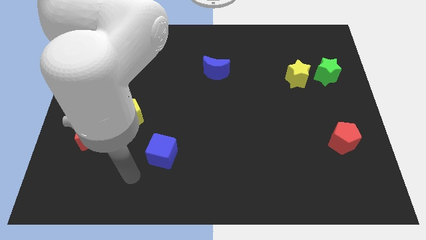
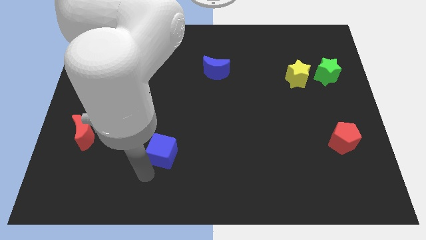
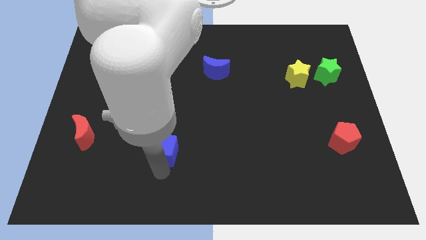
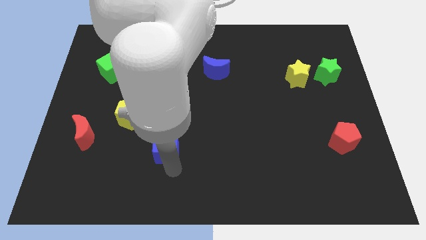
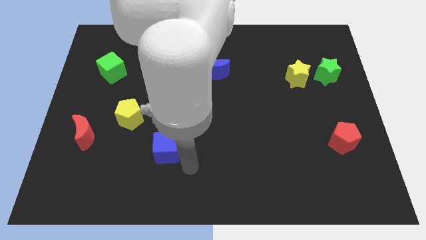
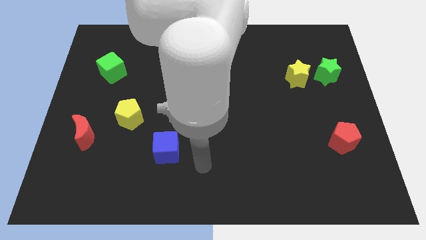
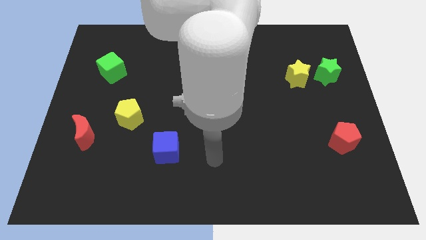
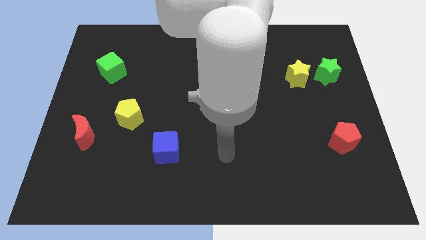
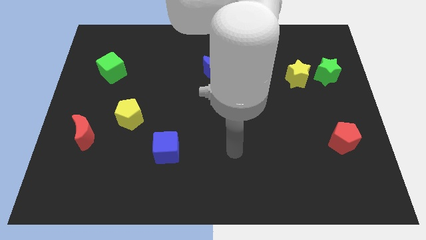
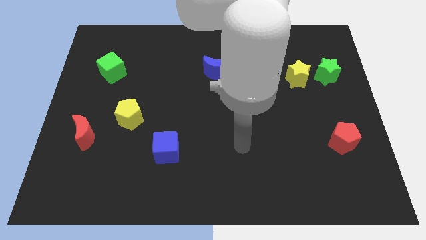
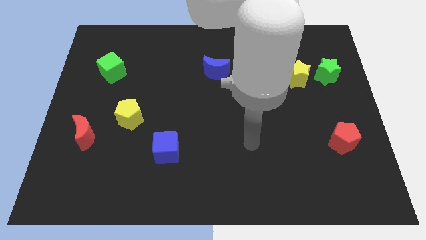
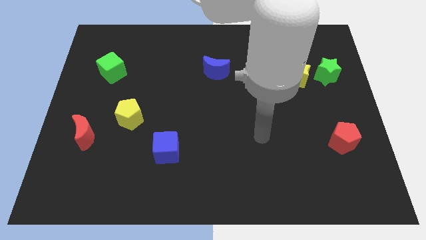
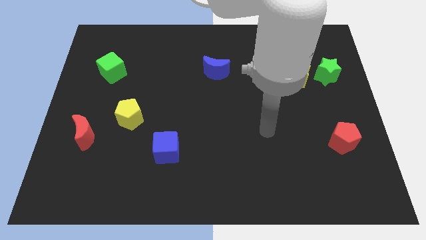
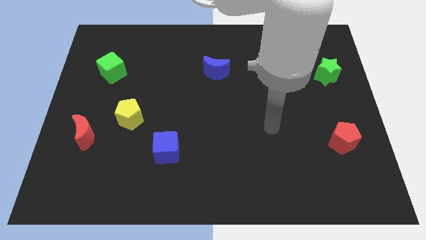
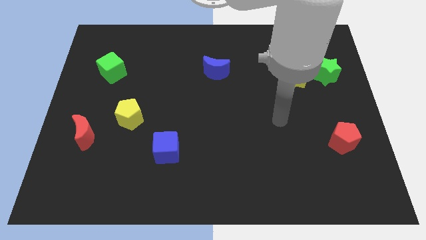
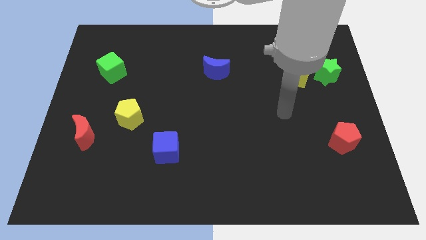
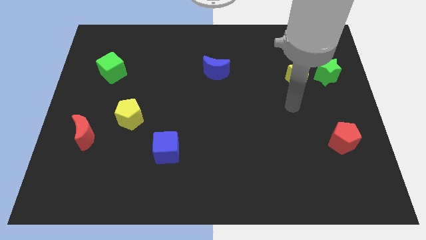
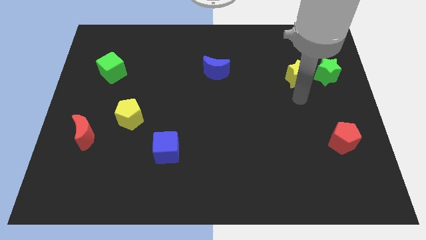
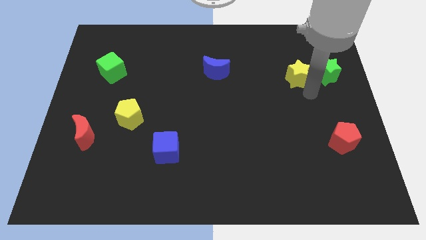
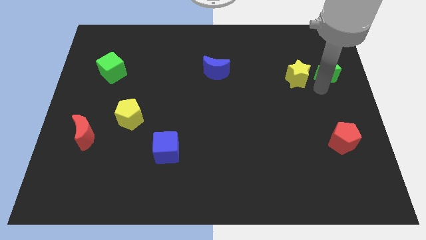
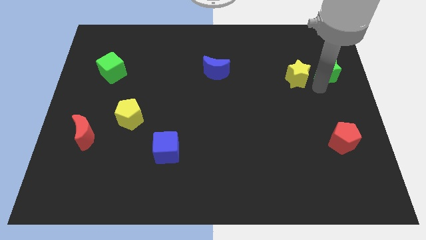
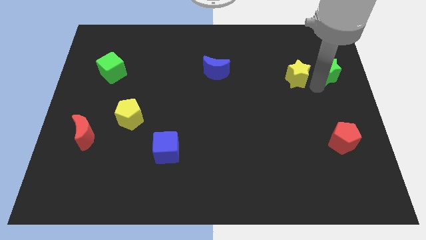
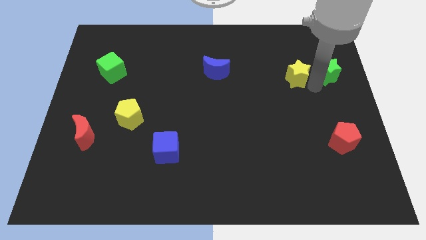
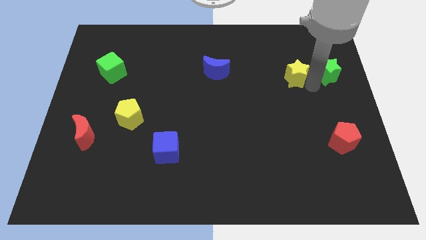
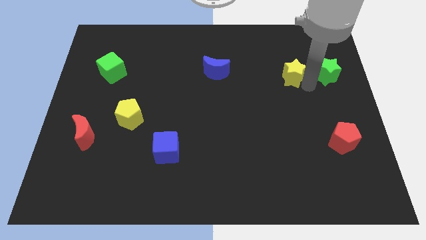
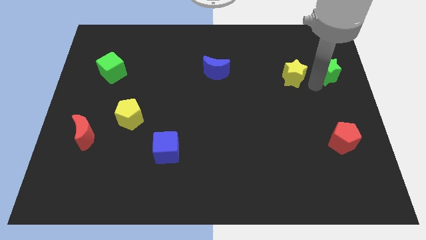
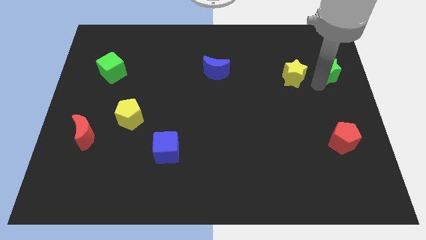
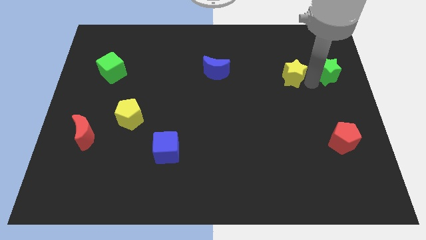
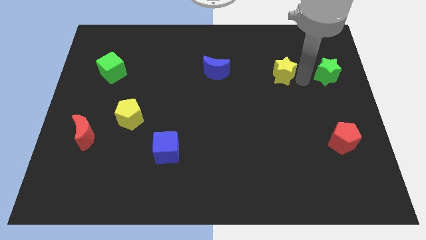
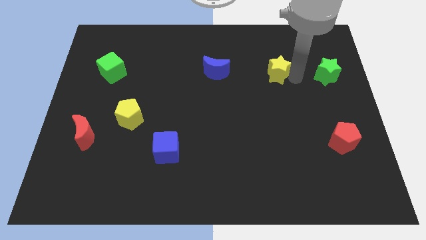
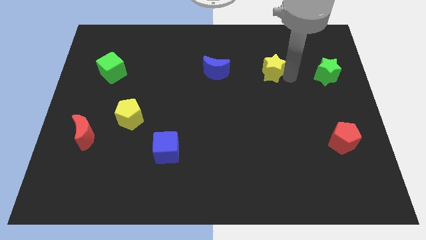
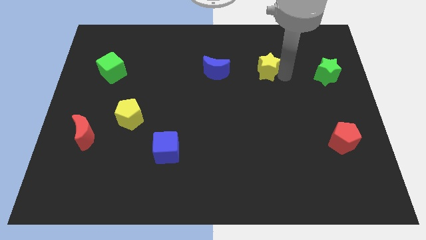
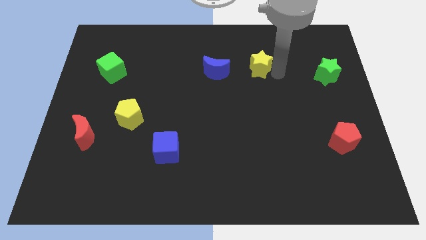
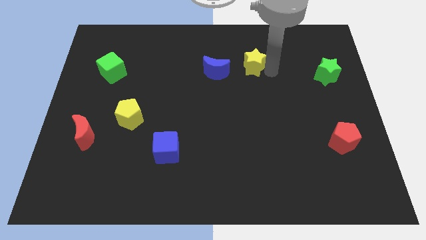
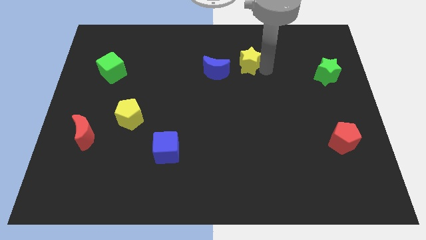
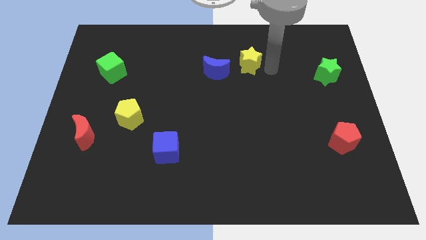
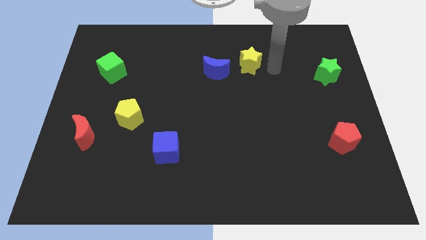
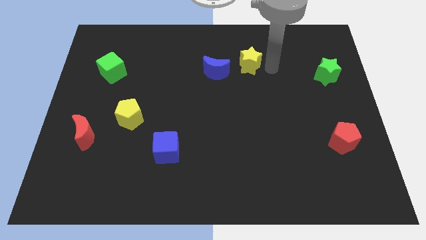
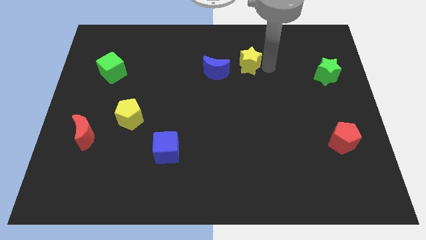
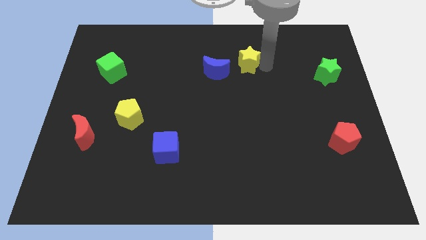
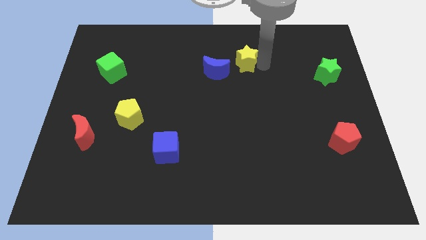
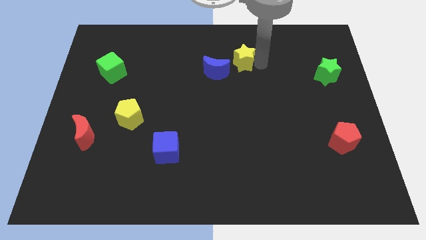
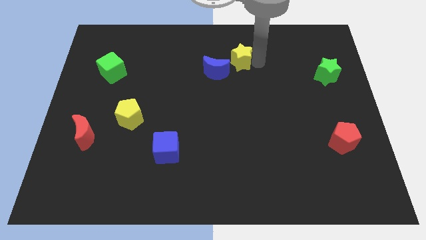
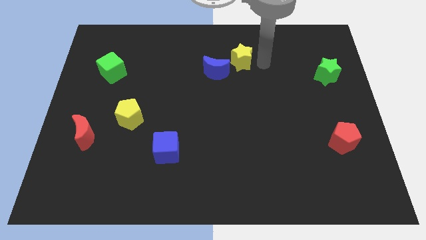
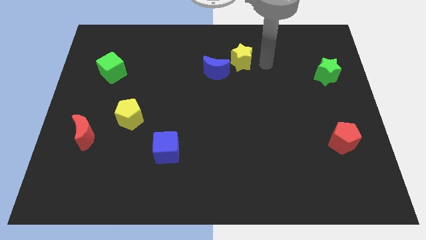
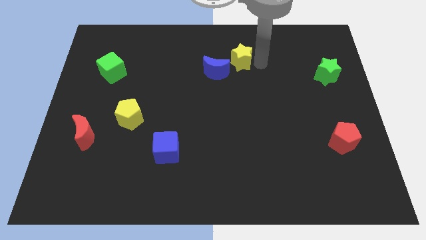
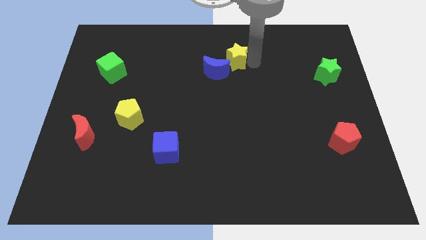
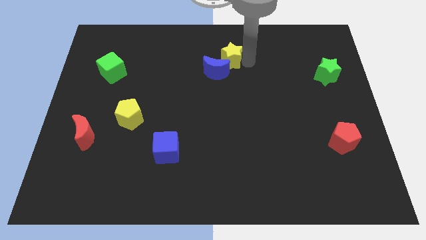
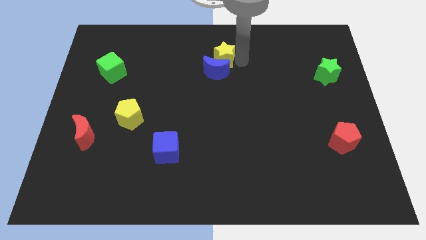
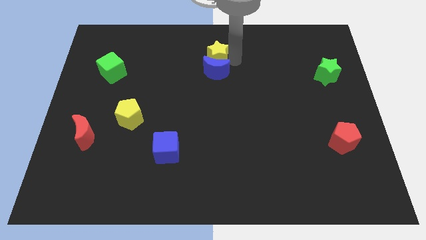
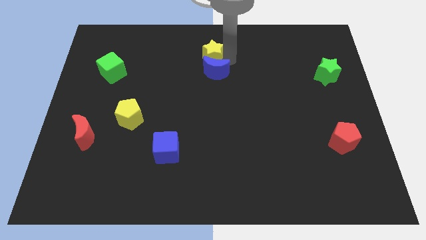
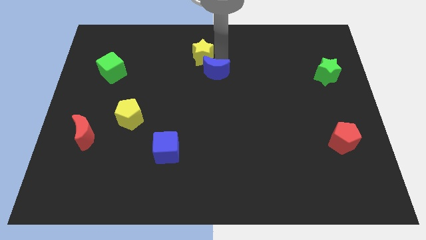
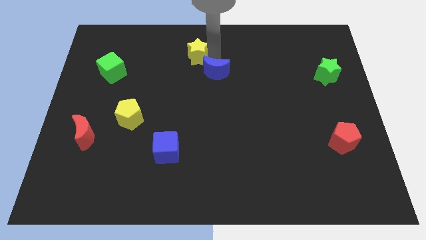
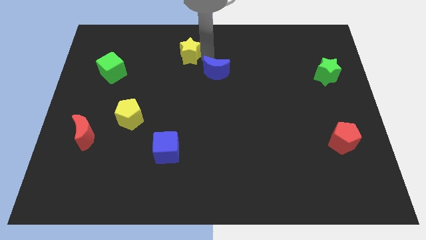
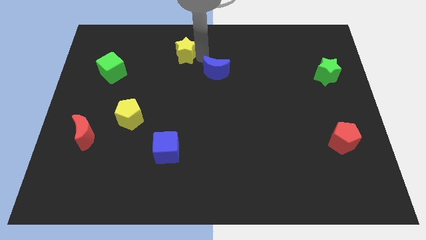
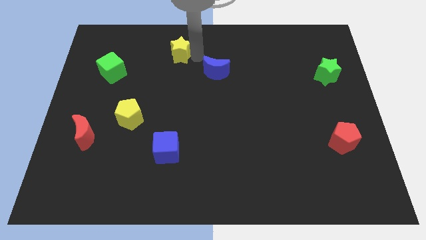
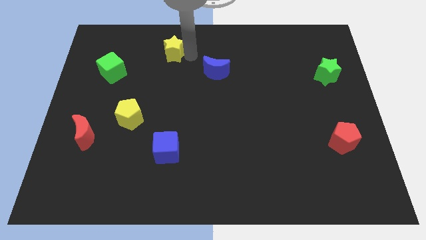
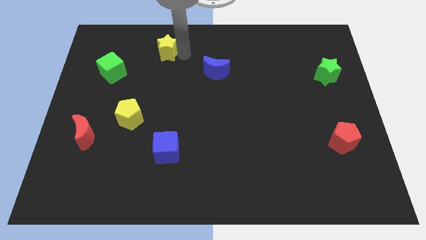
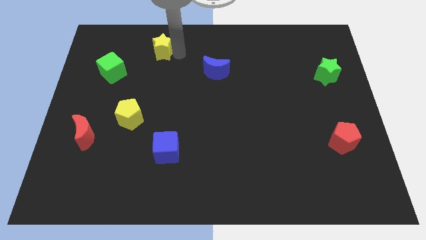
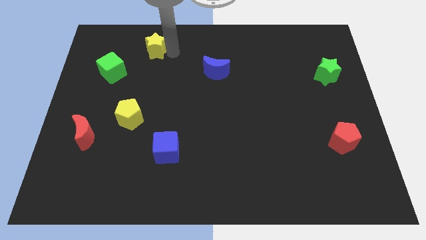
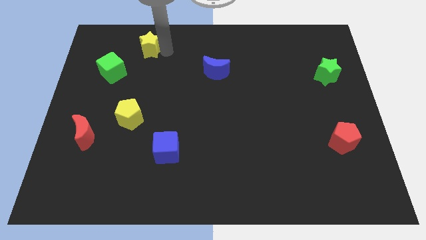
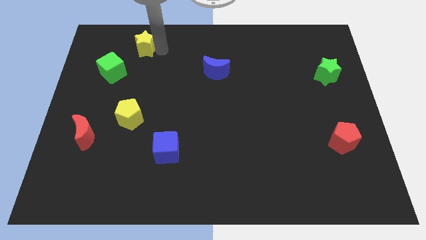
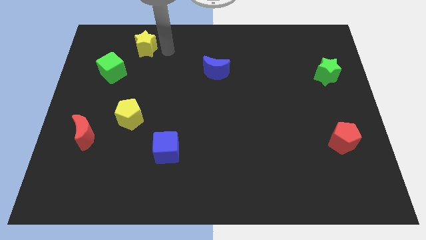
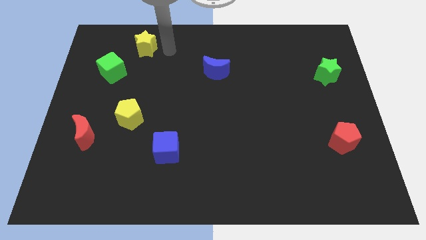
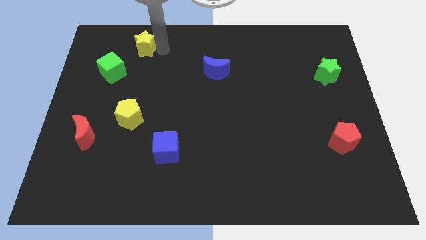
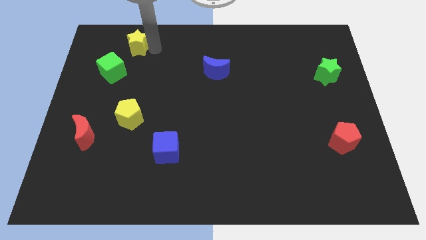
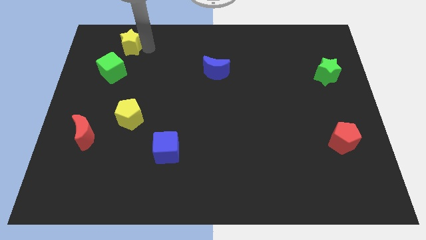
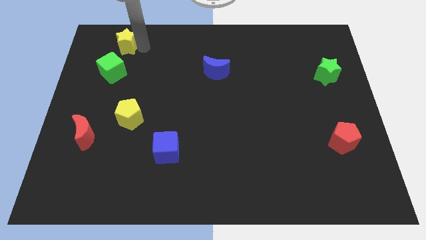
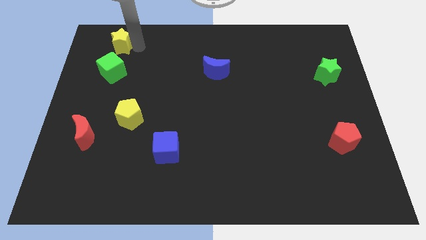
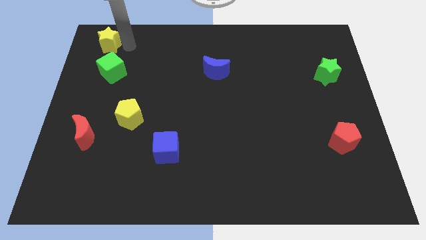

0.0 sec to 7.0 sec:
put the yellow star to the top left

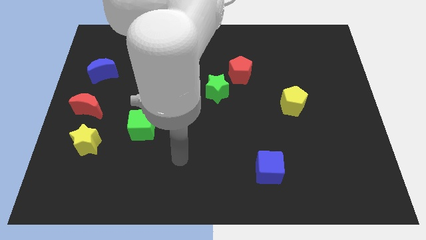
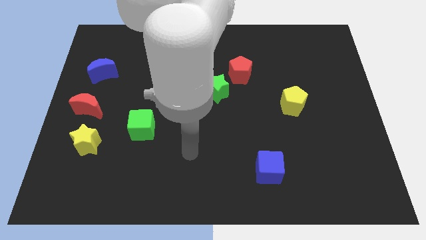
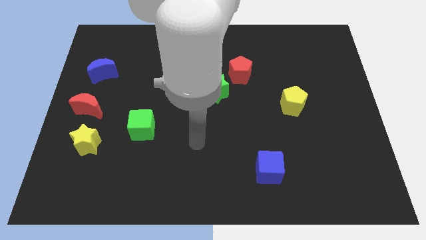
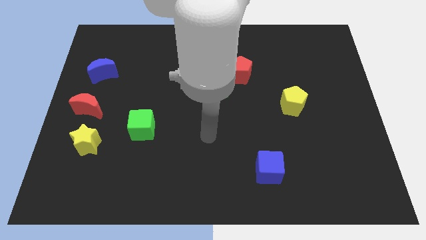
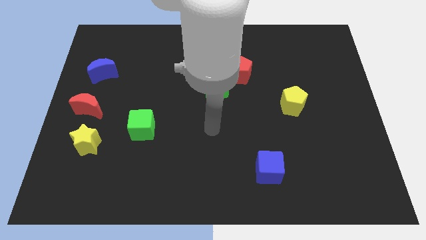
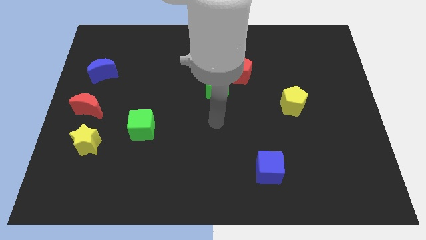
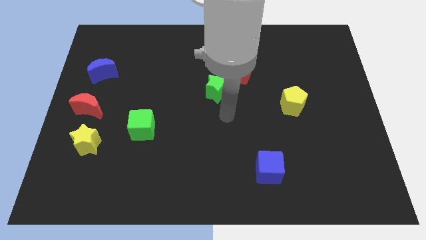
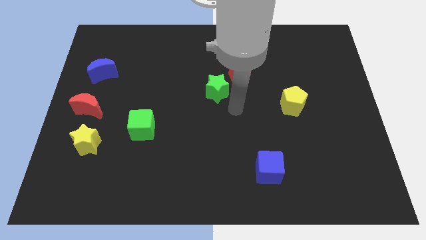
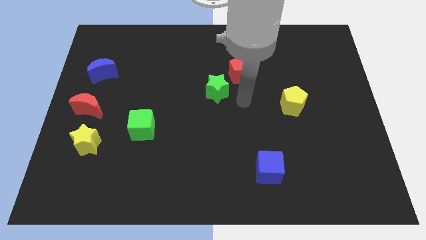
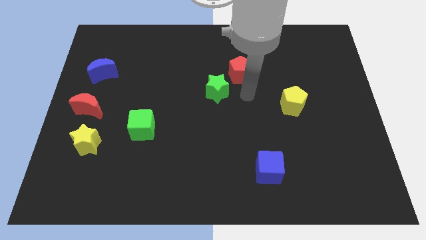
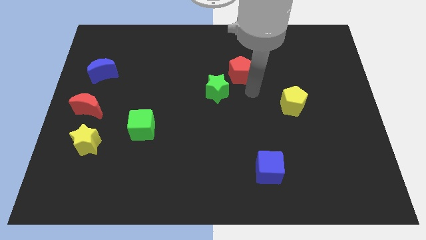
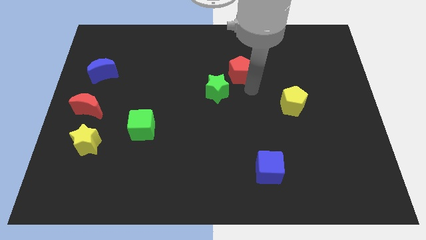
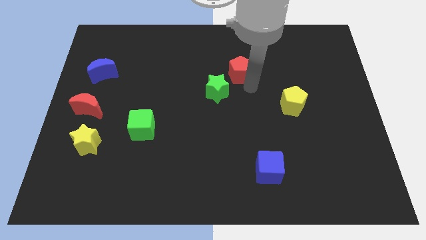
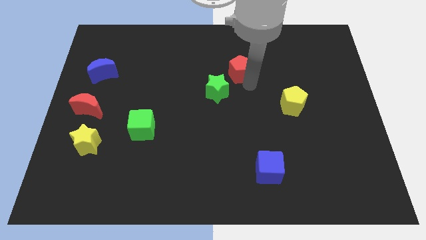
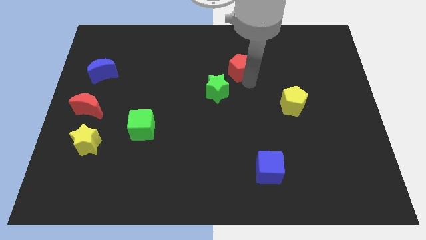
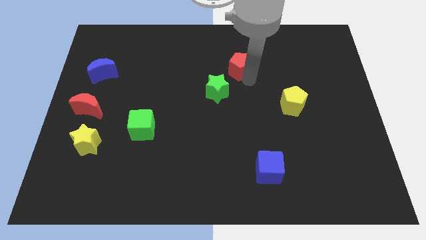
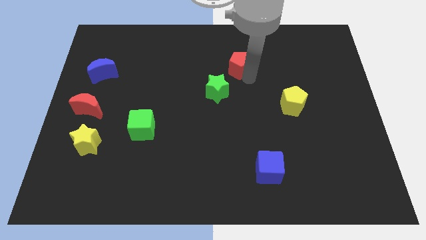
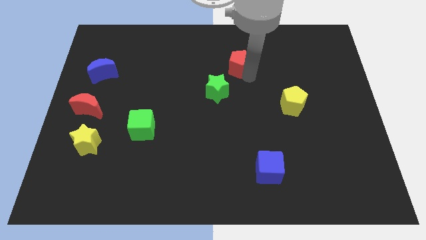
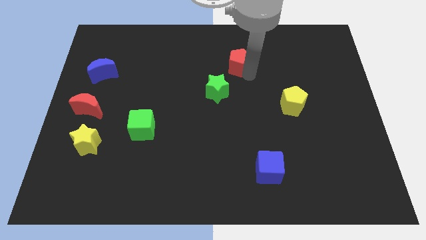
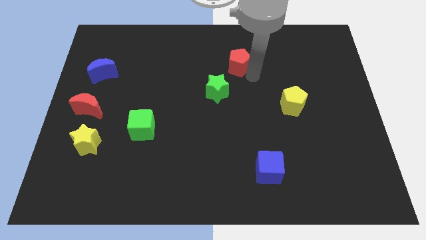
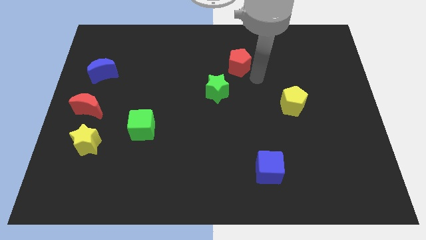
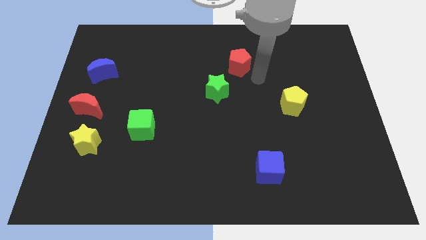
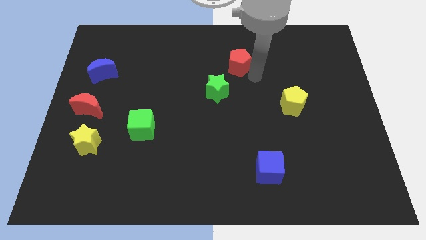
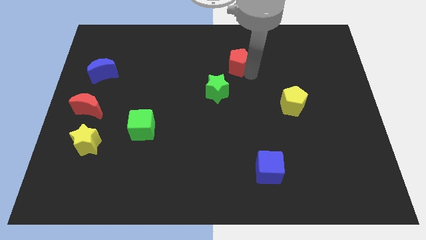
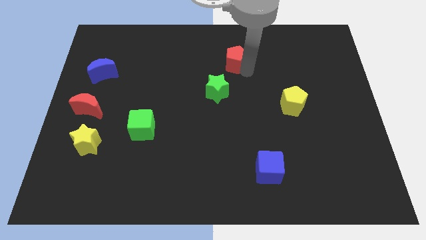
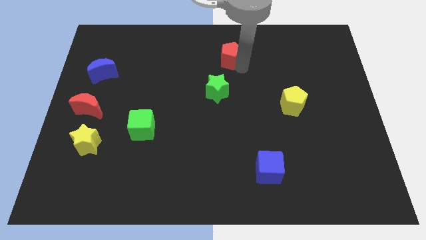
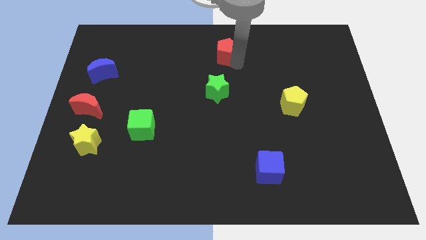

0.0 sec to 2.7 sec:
move the red pentagon to the top
